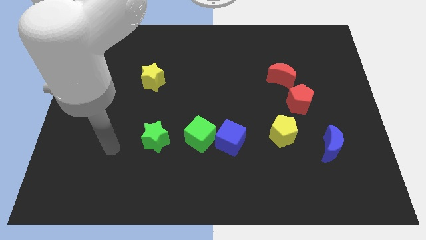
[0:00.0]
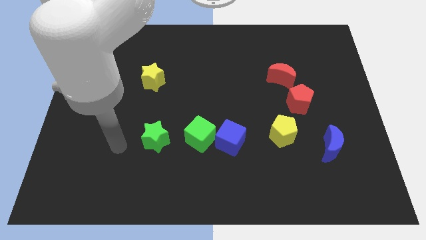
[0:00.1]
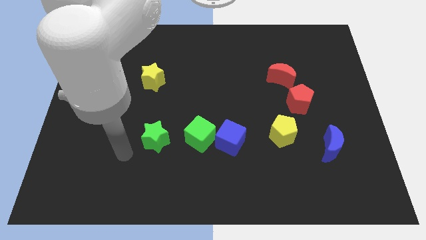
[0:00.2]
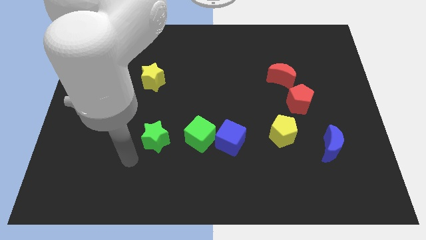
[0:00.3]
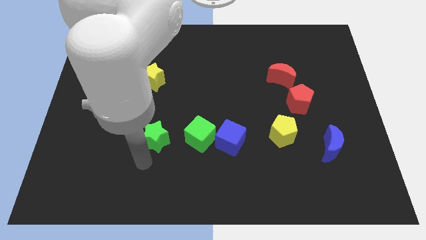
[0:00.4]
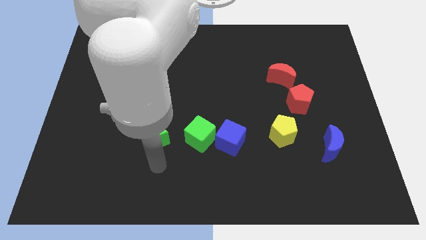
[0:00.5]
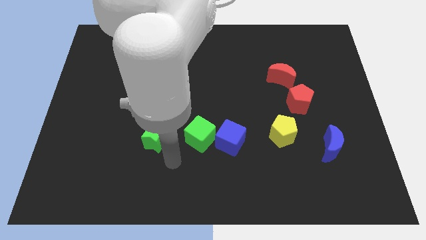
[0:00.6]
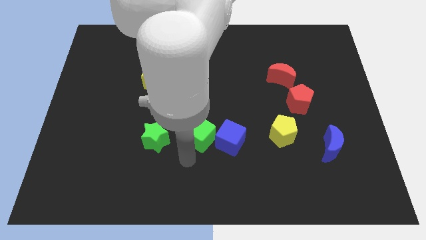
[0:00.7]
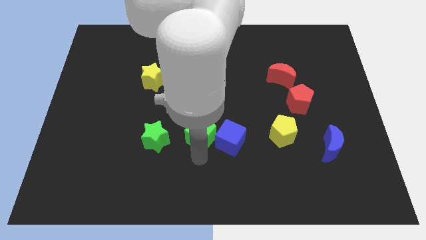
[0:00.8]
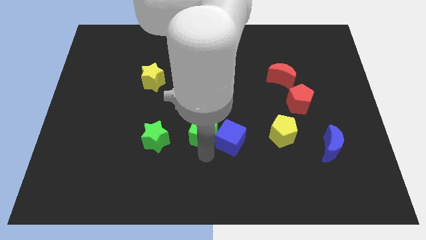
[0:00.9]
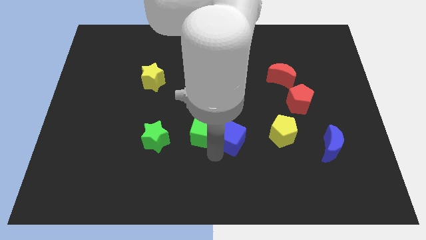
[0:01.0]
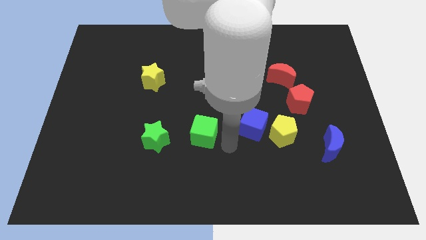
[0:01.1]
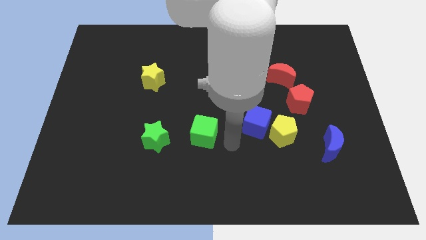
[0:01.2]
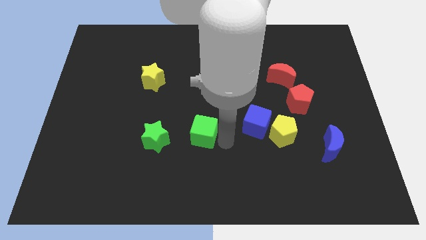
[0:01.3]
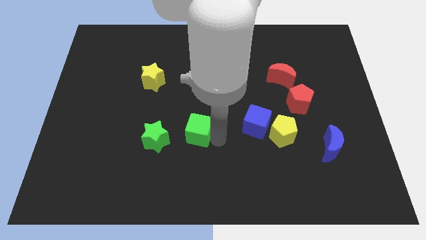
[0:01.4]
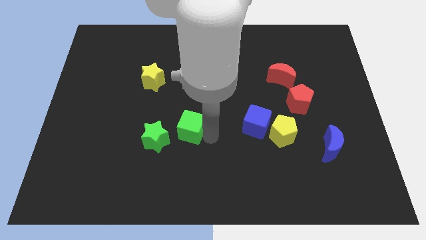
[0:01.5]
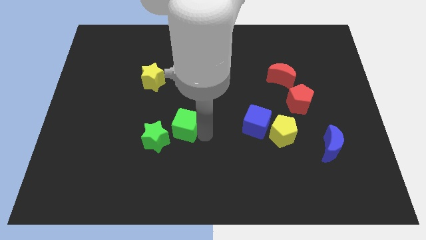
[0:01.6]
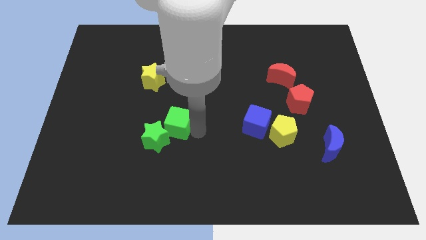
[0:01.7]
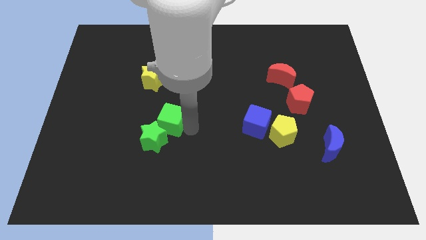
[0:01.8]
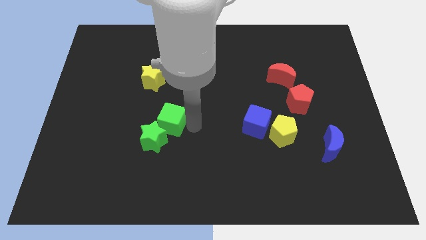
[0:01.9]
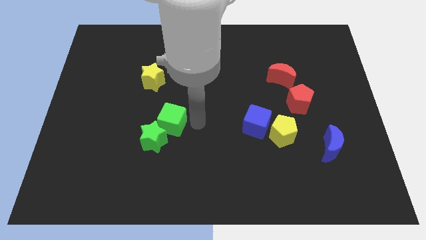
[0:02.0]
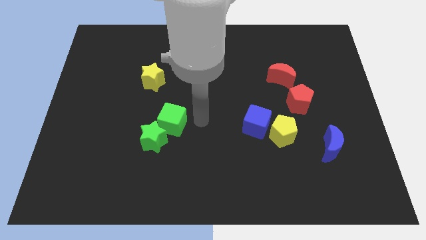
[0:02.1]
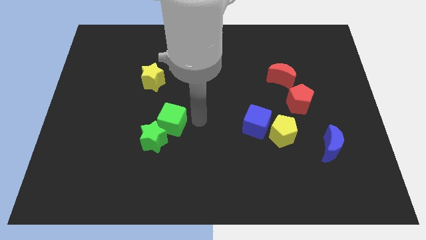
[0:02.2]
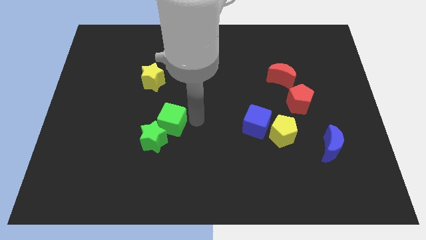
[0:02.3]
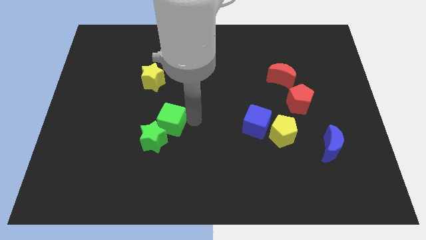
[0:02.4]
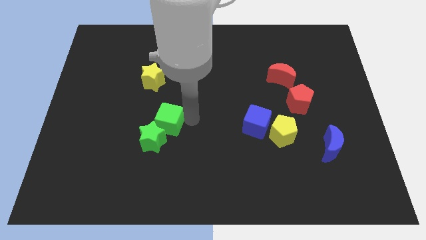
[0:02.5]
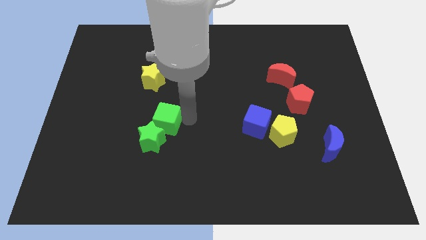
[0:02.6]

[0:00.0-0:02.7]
move the green cube a little bit left

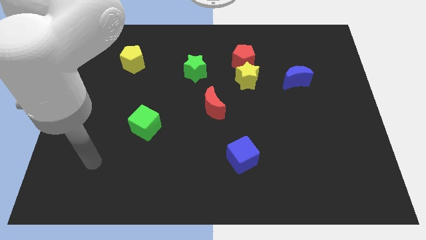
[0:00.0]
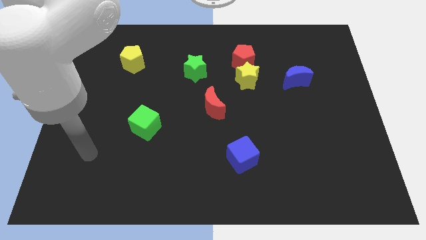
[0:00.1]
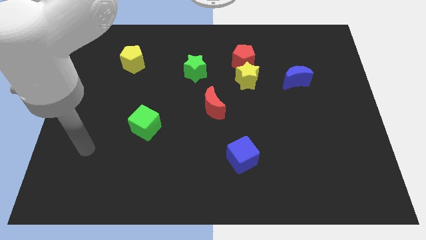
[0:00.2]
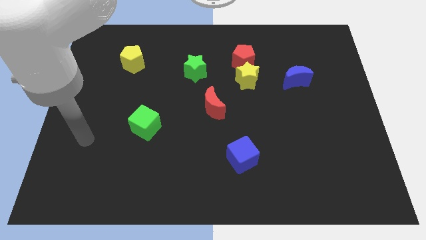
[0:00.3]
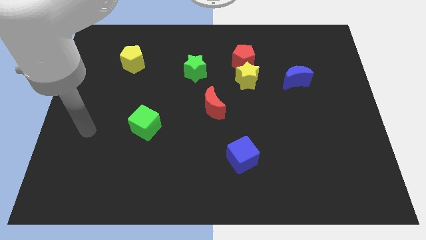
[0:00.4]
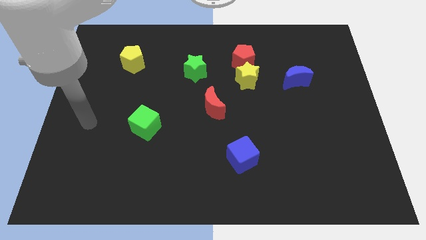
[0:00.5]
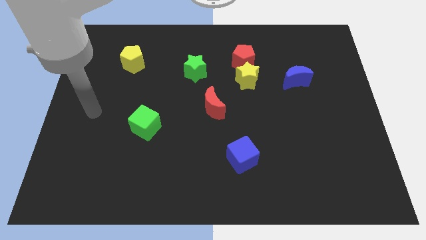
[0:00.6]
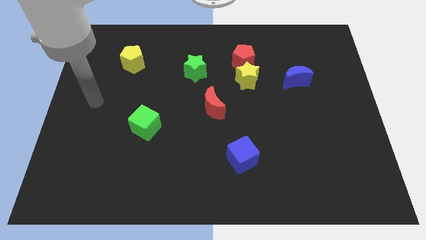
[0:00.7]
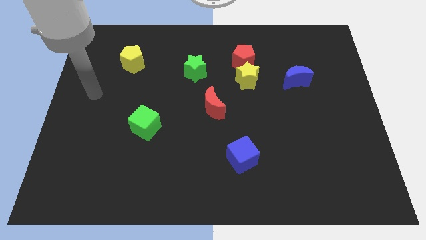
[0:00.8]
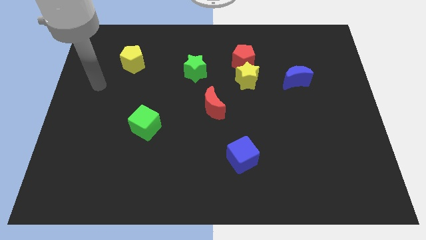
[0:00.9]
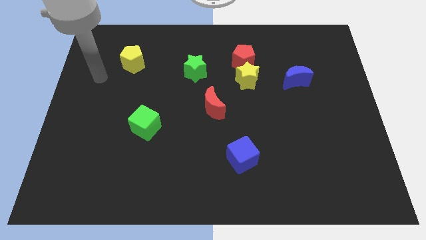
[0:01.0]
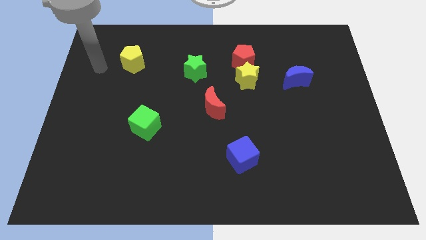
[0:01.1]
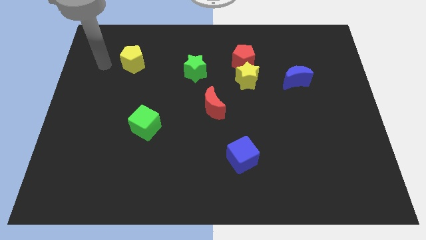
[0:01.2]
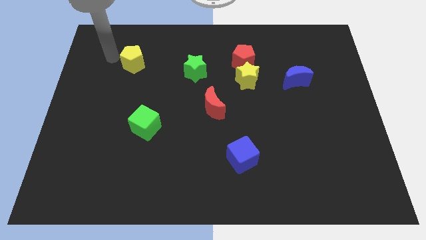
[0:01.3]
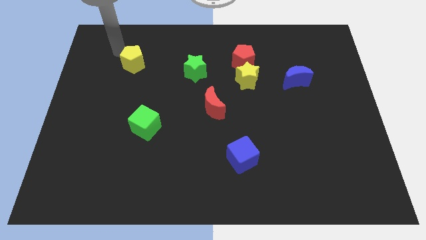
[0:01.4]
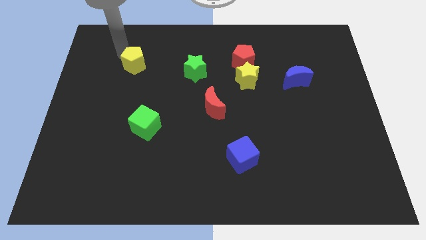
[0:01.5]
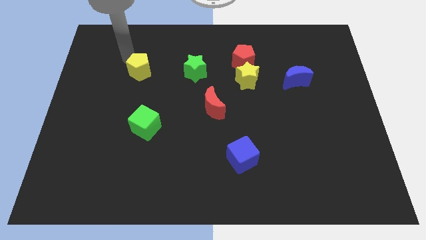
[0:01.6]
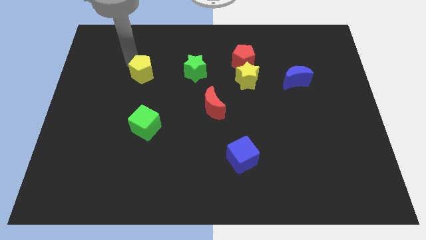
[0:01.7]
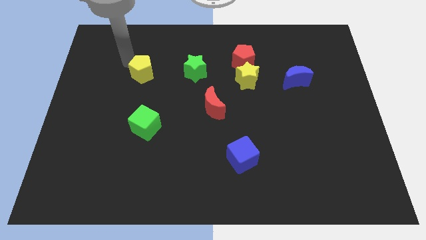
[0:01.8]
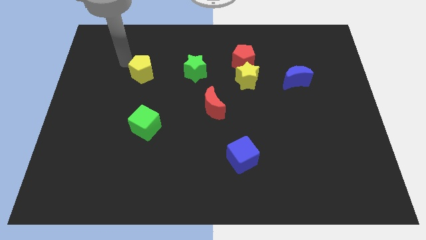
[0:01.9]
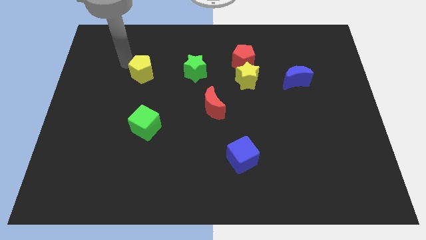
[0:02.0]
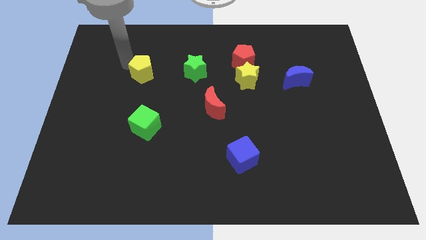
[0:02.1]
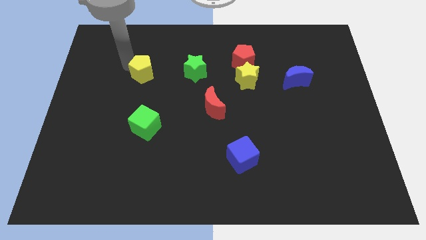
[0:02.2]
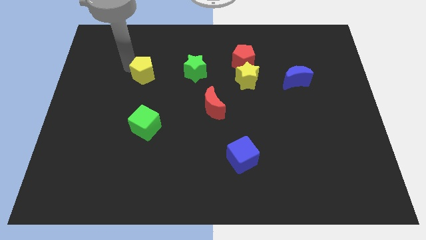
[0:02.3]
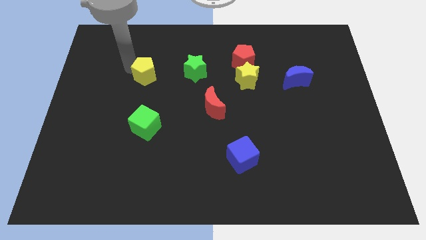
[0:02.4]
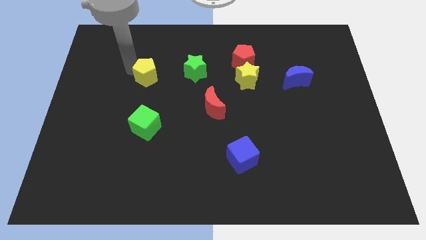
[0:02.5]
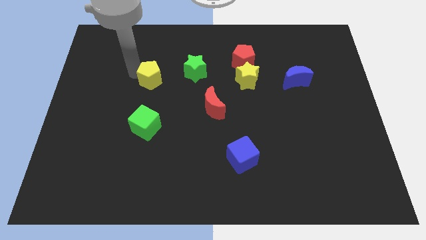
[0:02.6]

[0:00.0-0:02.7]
push the yellow pentagon a little down and then to the right

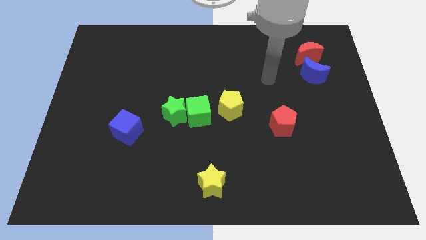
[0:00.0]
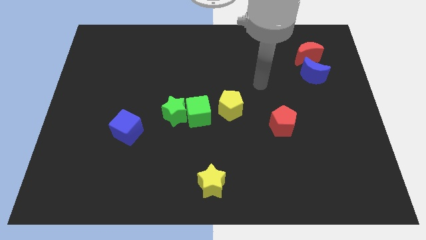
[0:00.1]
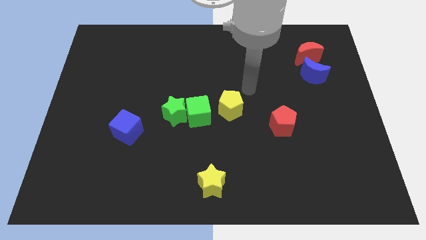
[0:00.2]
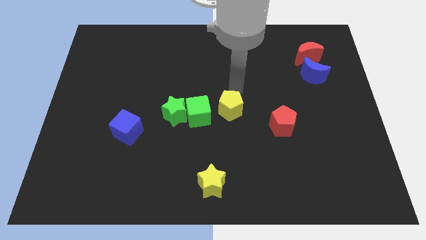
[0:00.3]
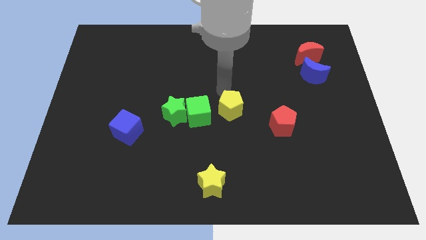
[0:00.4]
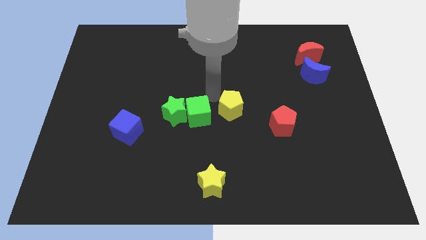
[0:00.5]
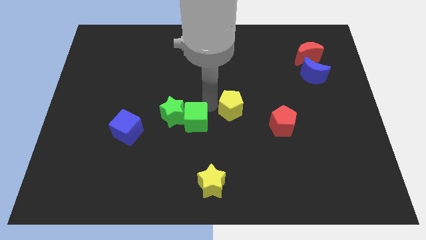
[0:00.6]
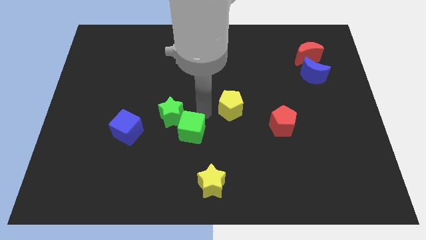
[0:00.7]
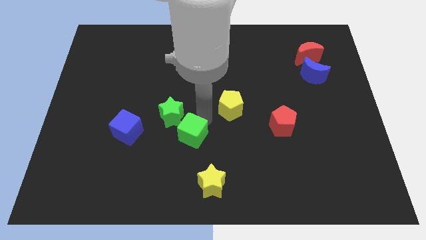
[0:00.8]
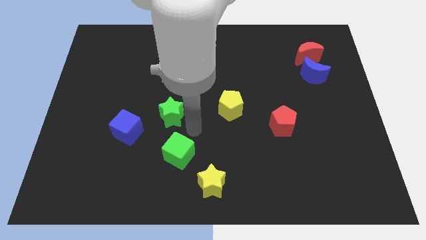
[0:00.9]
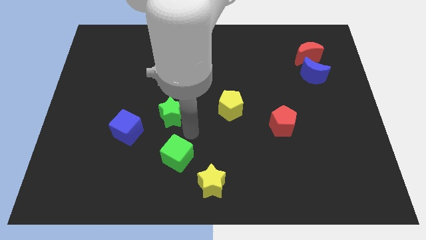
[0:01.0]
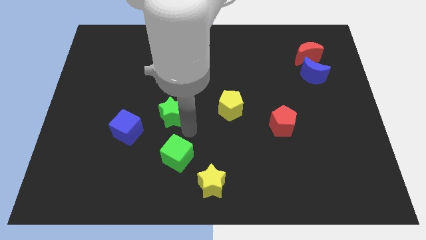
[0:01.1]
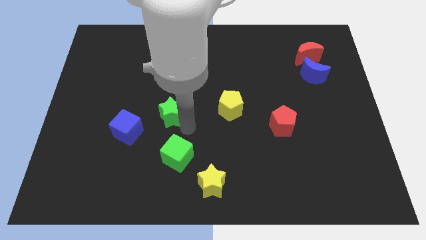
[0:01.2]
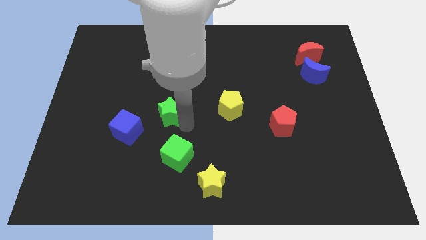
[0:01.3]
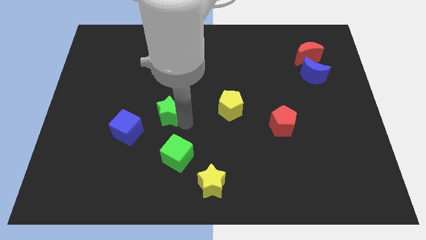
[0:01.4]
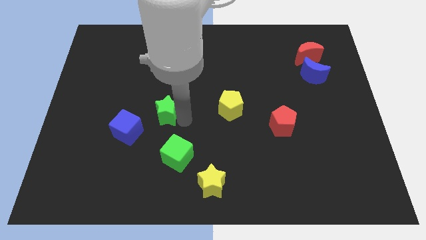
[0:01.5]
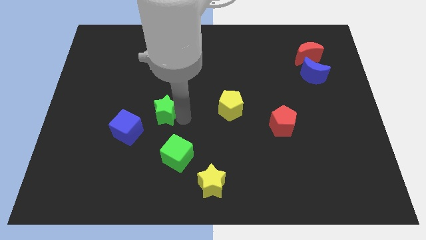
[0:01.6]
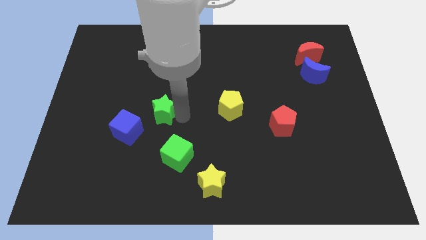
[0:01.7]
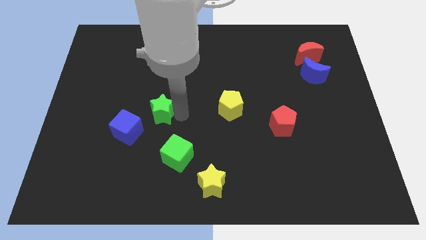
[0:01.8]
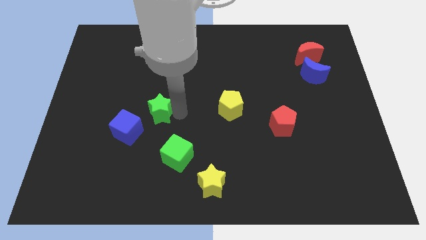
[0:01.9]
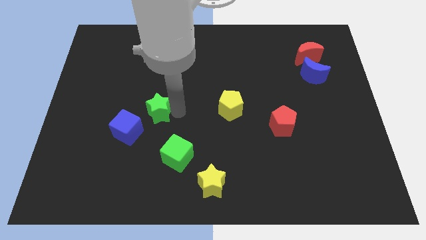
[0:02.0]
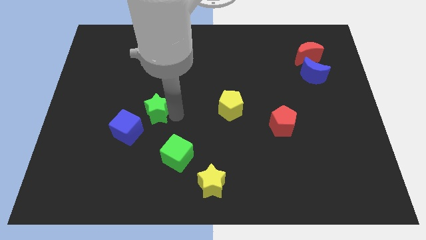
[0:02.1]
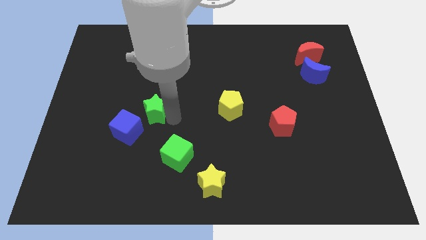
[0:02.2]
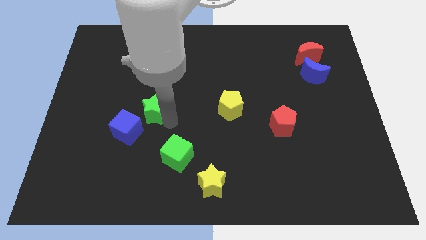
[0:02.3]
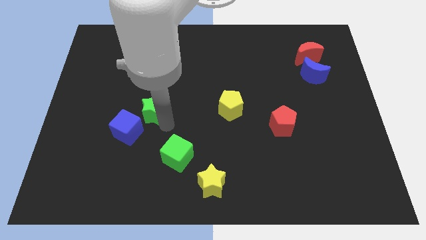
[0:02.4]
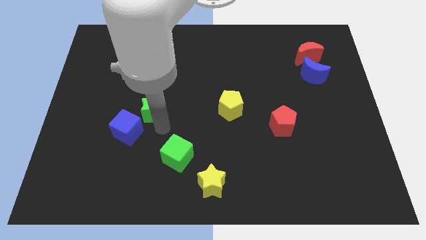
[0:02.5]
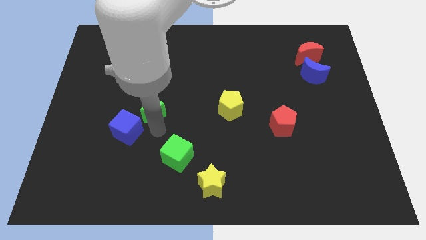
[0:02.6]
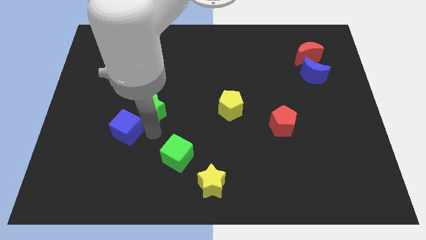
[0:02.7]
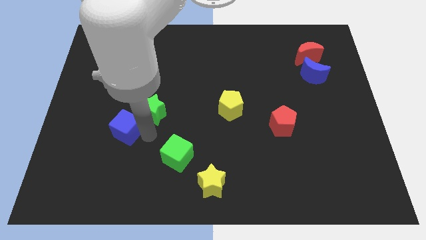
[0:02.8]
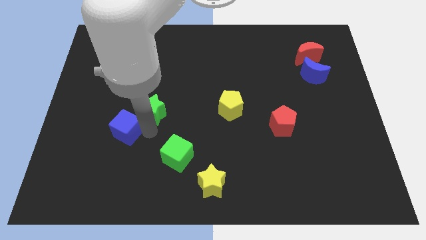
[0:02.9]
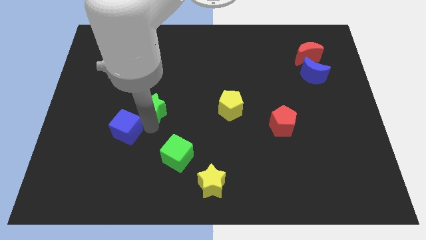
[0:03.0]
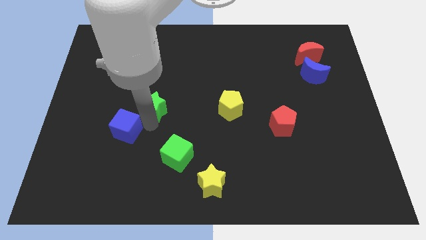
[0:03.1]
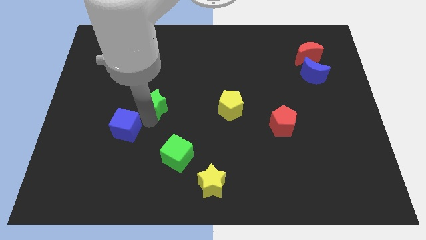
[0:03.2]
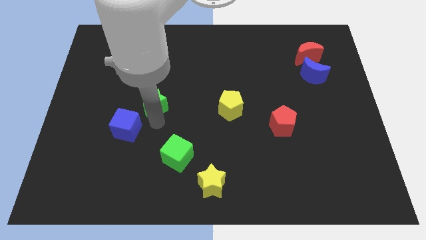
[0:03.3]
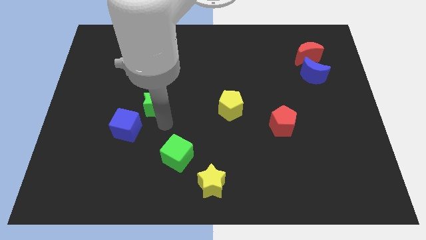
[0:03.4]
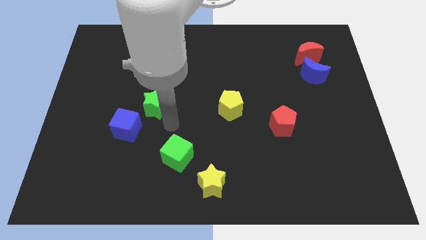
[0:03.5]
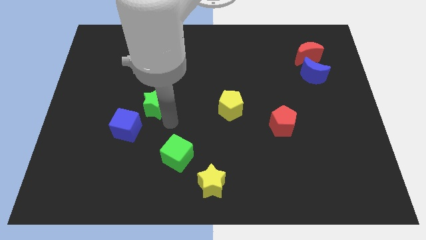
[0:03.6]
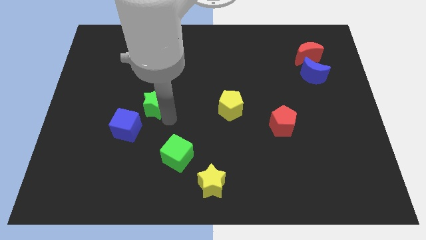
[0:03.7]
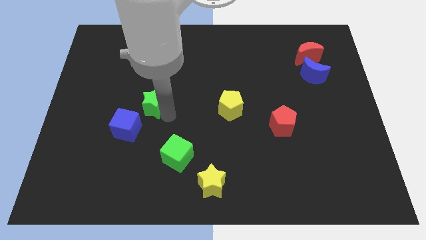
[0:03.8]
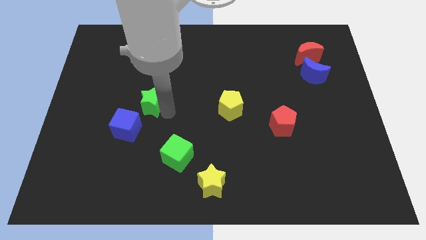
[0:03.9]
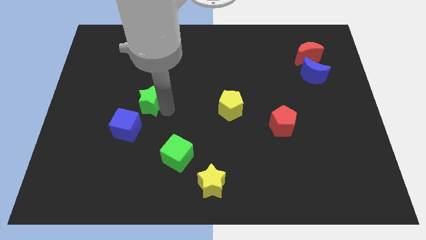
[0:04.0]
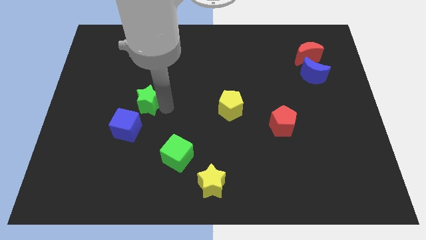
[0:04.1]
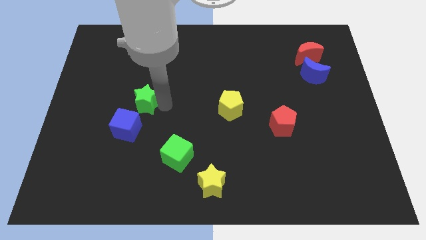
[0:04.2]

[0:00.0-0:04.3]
slide the green star slightly upwards and to the left diagonally
